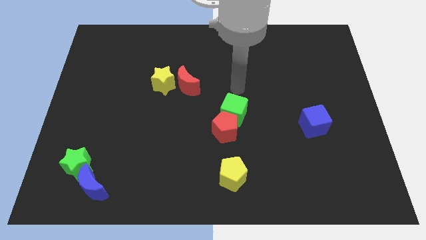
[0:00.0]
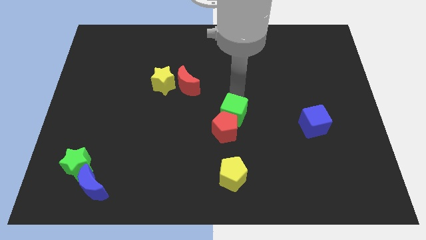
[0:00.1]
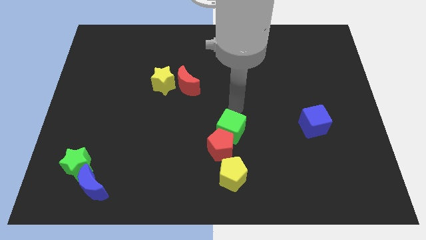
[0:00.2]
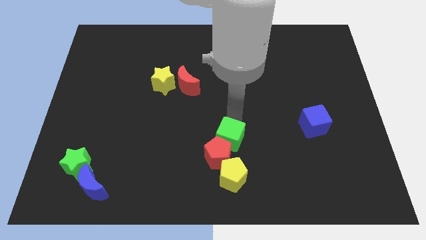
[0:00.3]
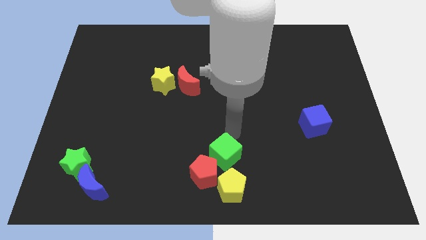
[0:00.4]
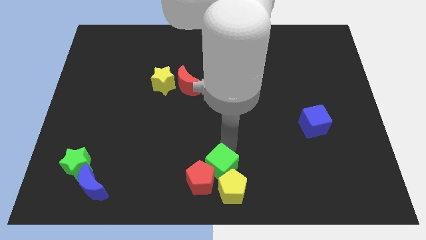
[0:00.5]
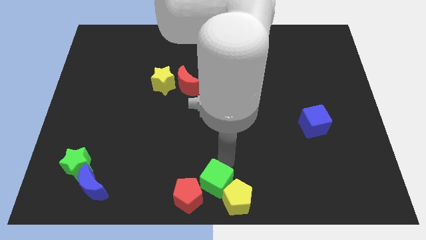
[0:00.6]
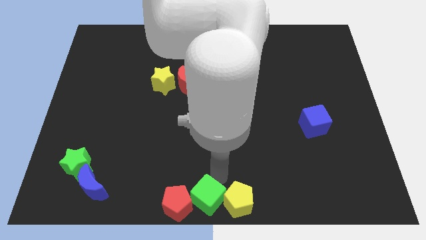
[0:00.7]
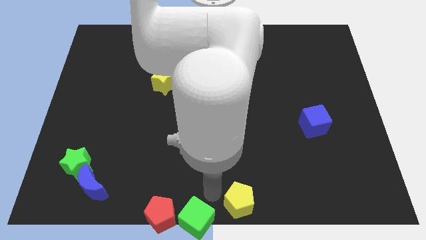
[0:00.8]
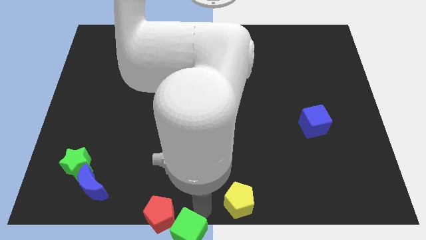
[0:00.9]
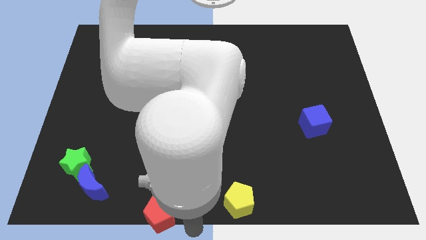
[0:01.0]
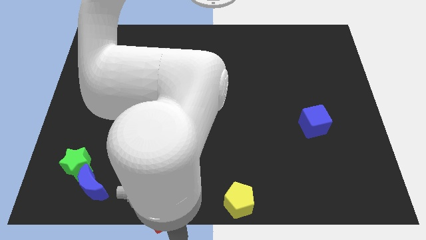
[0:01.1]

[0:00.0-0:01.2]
pull the red pentagon apart from the green cube

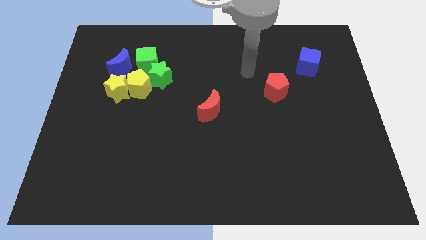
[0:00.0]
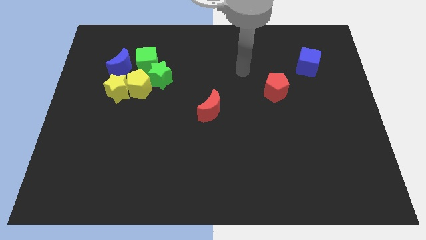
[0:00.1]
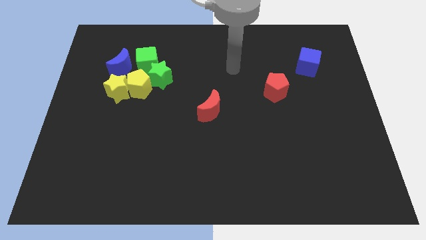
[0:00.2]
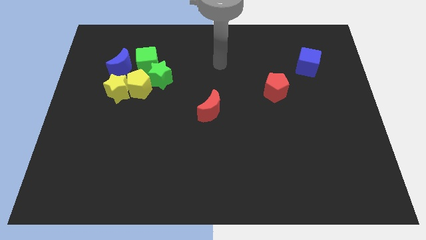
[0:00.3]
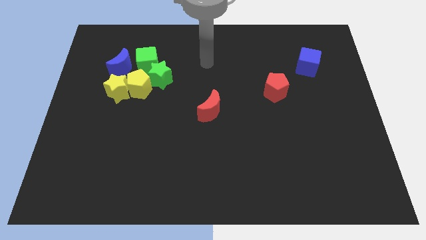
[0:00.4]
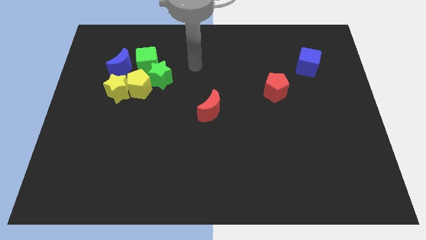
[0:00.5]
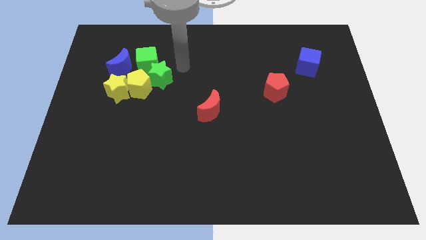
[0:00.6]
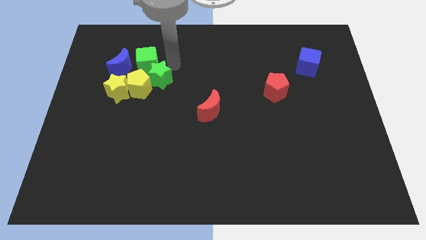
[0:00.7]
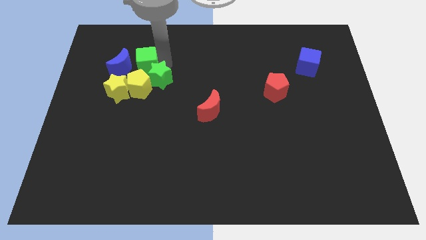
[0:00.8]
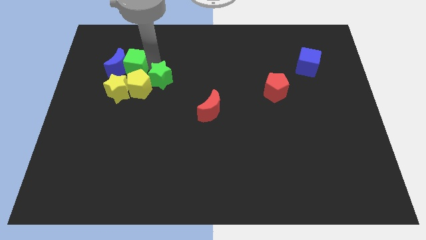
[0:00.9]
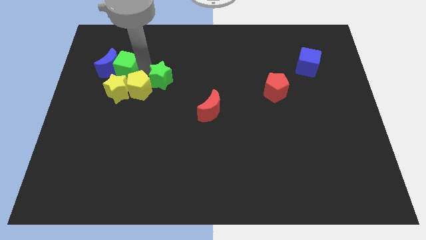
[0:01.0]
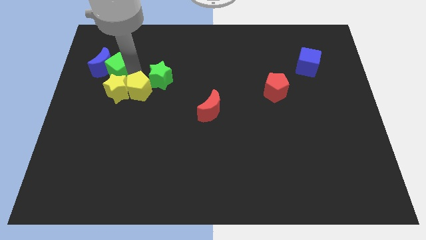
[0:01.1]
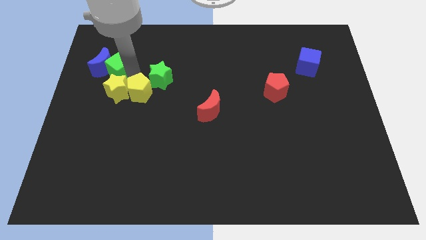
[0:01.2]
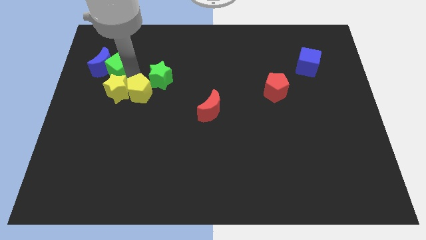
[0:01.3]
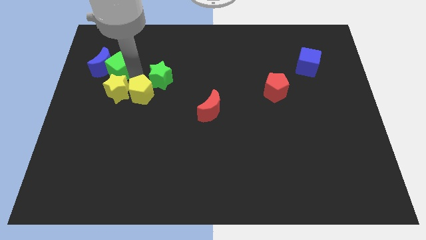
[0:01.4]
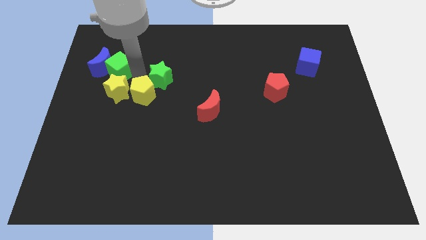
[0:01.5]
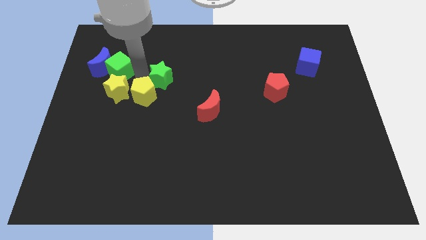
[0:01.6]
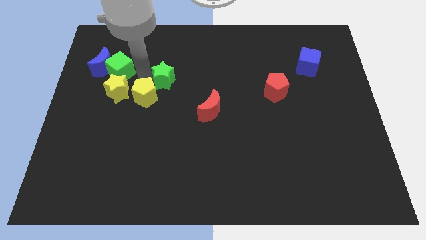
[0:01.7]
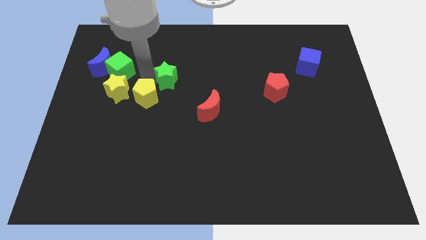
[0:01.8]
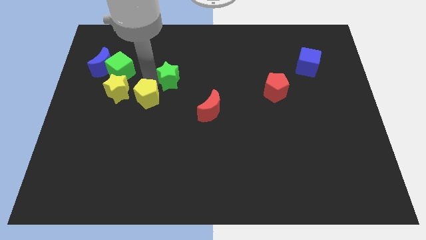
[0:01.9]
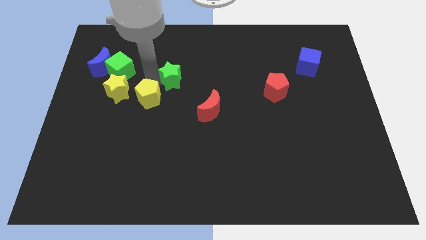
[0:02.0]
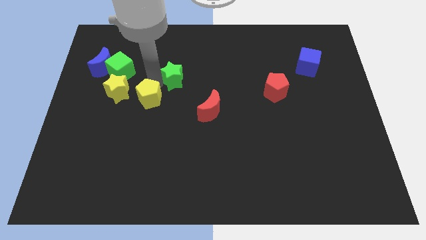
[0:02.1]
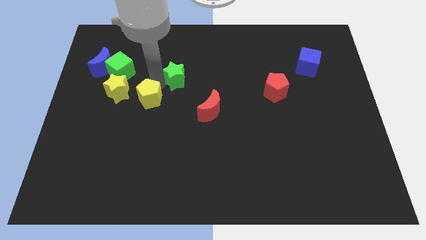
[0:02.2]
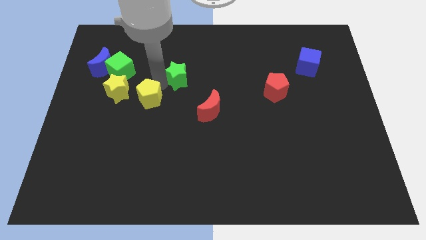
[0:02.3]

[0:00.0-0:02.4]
separate the green star from the yellow pentagon and green cube

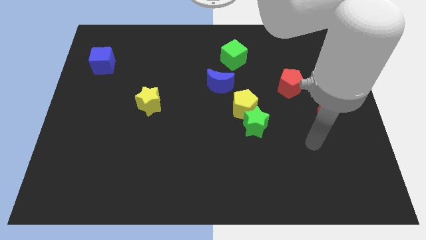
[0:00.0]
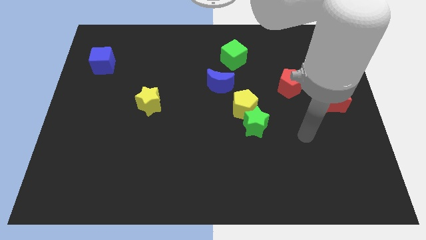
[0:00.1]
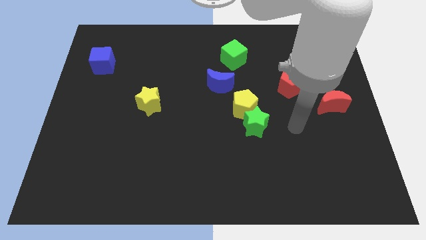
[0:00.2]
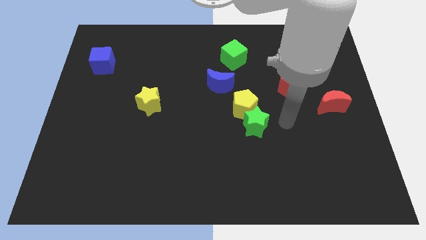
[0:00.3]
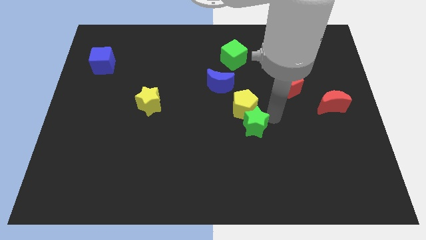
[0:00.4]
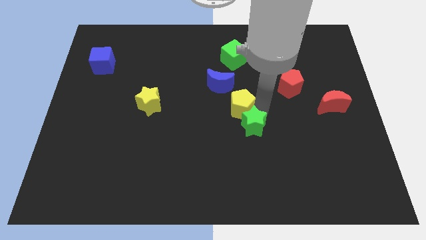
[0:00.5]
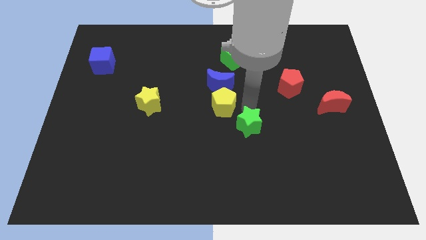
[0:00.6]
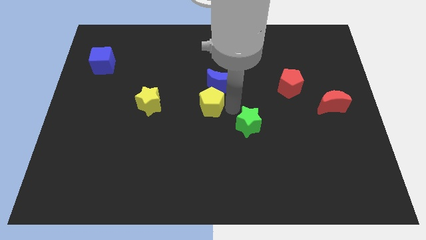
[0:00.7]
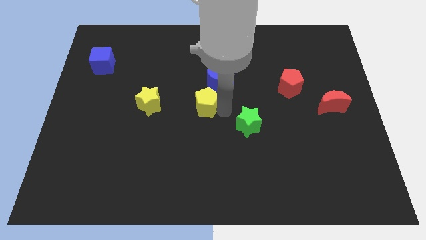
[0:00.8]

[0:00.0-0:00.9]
separate the green star from the yellow pentagon

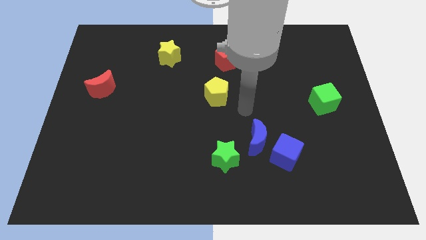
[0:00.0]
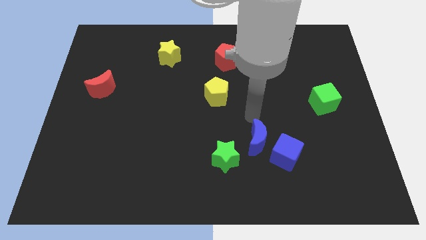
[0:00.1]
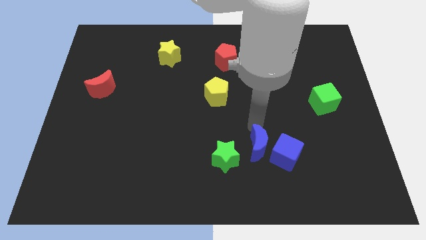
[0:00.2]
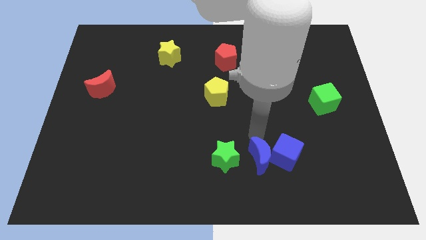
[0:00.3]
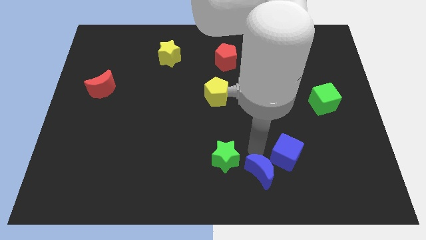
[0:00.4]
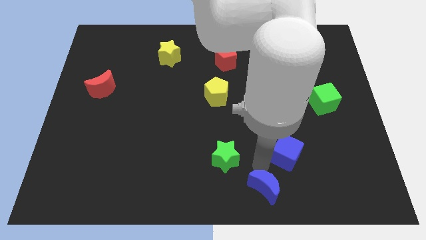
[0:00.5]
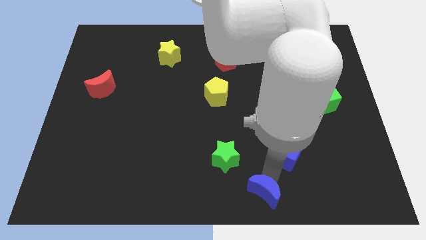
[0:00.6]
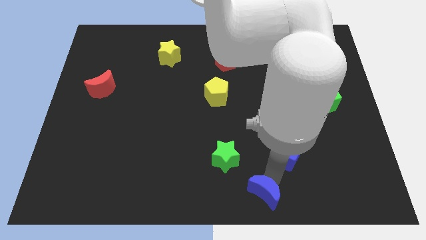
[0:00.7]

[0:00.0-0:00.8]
pull the blue cube apart from the blue moon

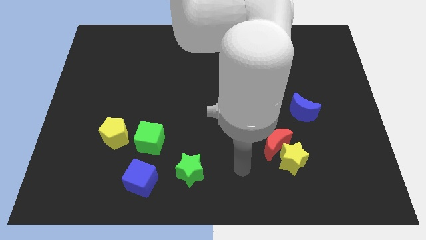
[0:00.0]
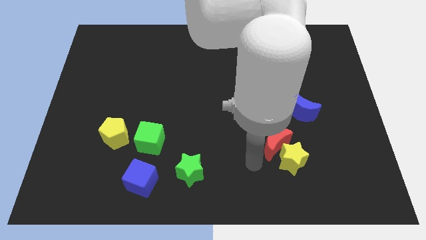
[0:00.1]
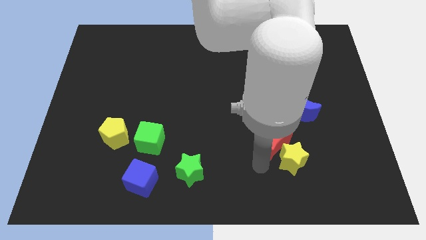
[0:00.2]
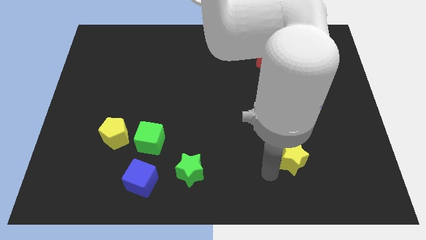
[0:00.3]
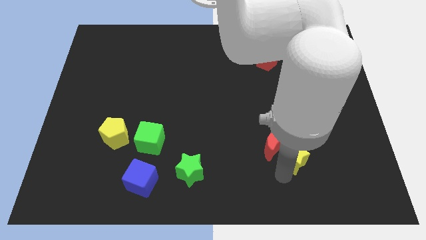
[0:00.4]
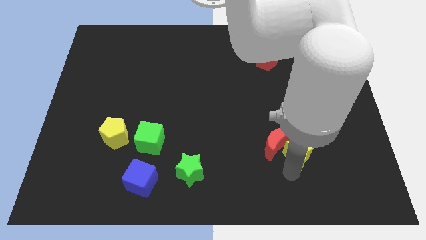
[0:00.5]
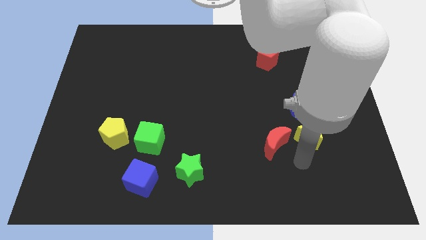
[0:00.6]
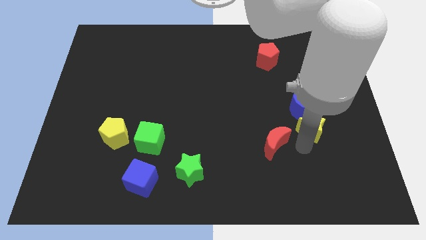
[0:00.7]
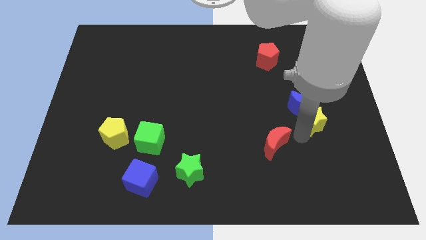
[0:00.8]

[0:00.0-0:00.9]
move the red moon away from the yellow star

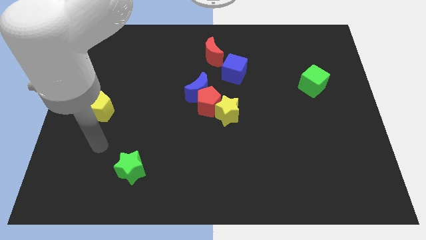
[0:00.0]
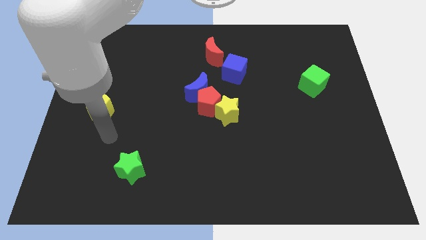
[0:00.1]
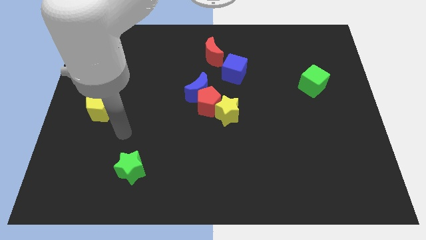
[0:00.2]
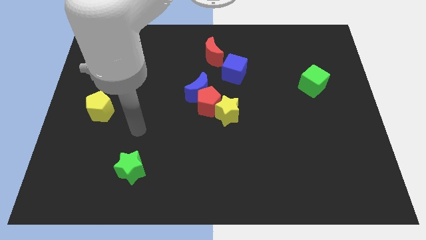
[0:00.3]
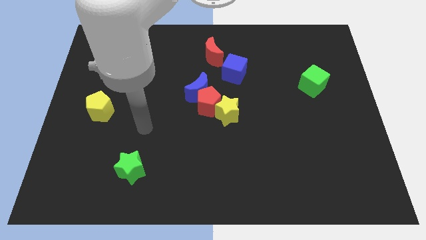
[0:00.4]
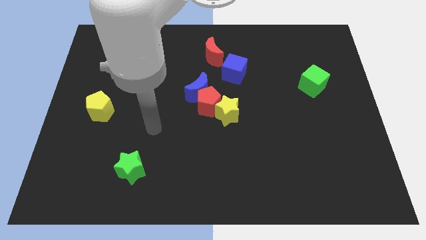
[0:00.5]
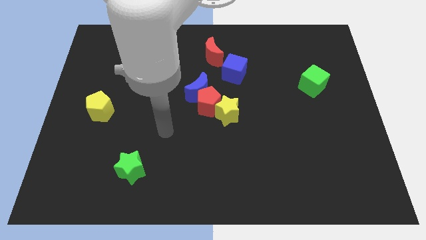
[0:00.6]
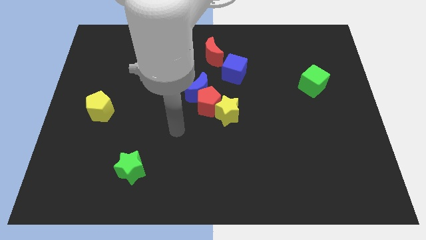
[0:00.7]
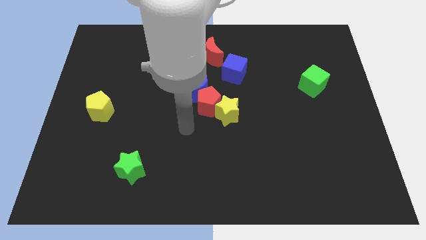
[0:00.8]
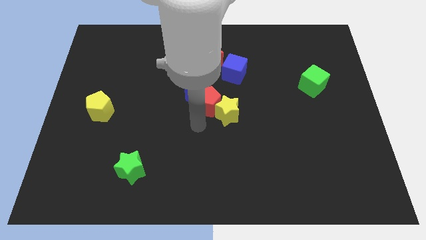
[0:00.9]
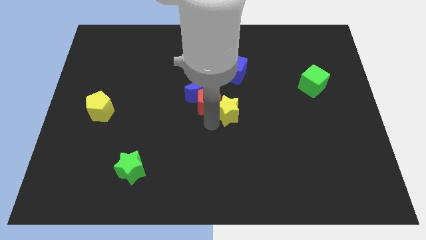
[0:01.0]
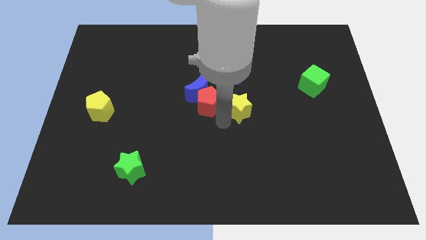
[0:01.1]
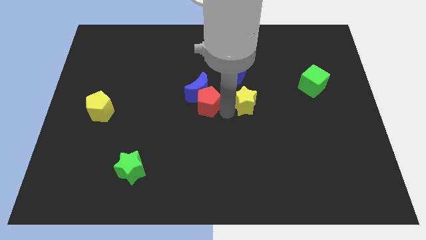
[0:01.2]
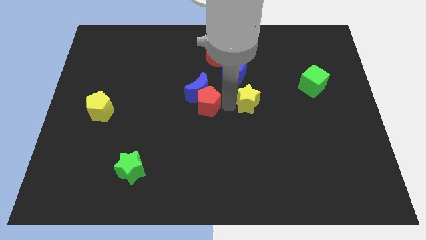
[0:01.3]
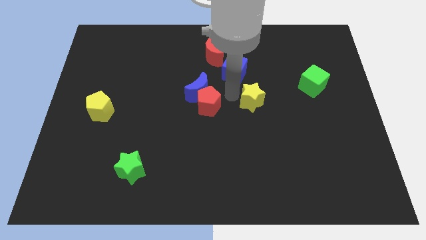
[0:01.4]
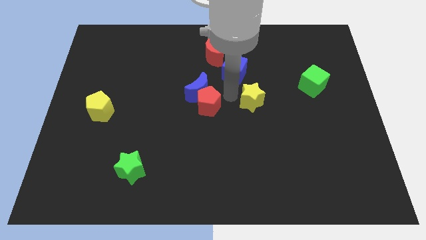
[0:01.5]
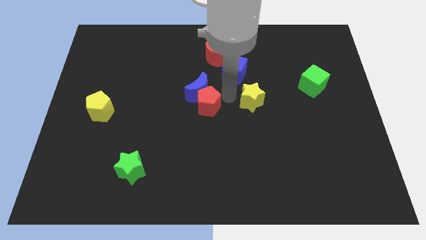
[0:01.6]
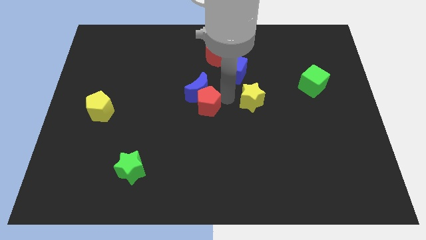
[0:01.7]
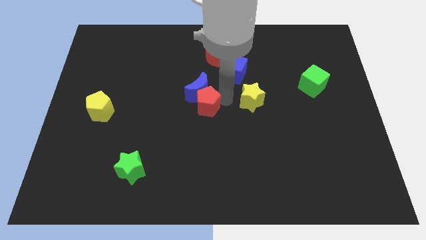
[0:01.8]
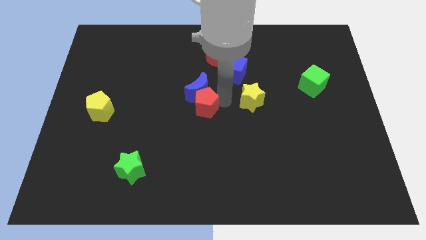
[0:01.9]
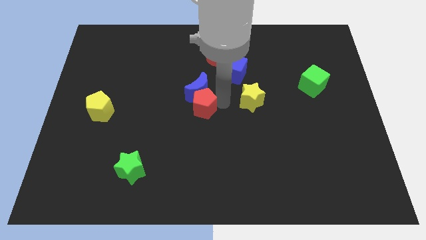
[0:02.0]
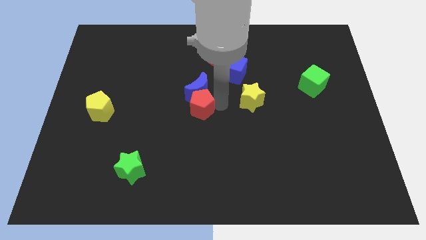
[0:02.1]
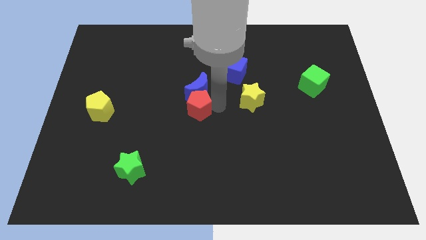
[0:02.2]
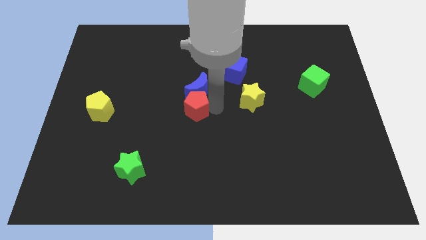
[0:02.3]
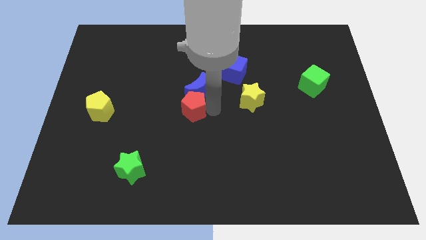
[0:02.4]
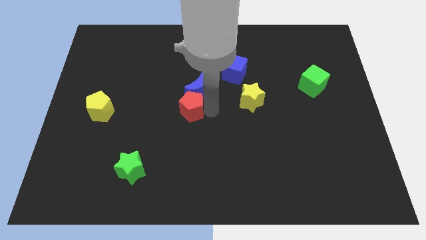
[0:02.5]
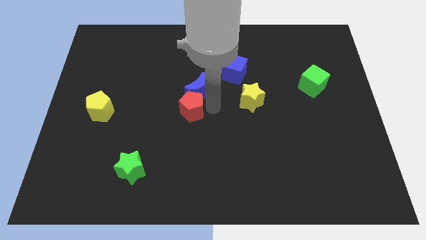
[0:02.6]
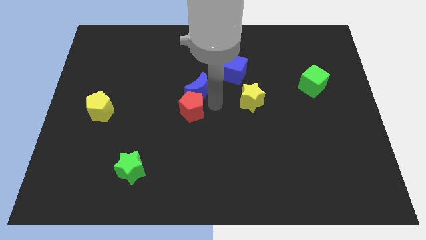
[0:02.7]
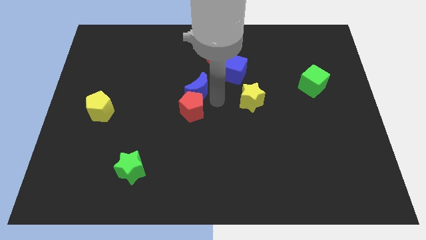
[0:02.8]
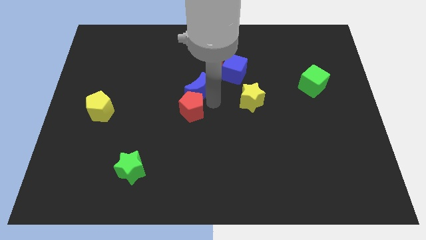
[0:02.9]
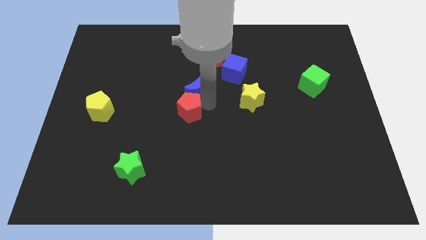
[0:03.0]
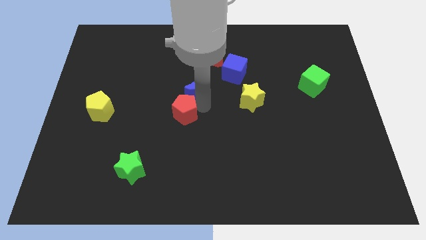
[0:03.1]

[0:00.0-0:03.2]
move the red pentagon away from the blue moon and yellow star
